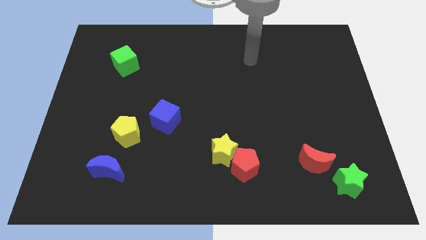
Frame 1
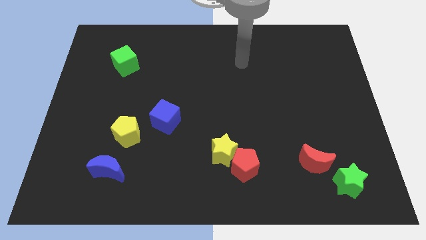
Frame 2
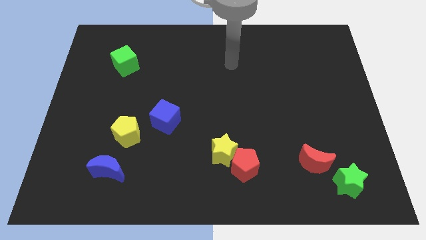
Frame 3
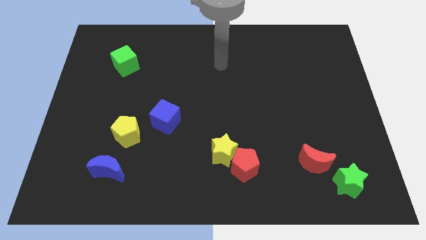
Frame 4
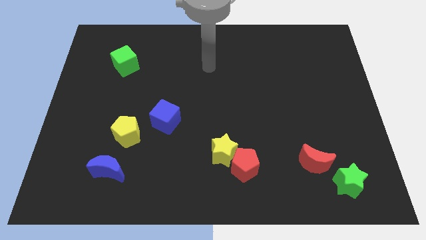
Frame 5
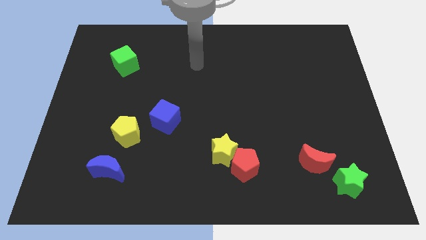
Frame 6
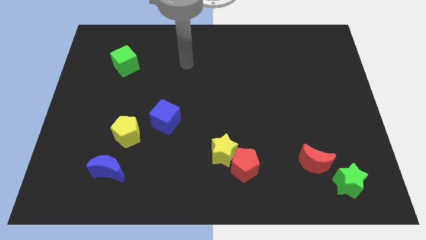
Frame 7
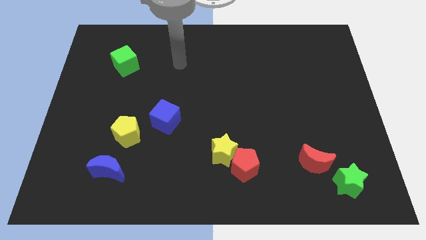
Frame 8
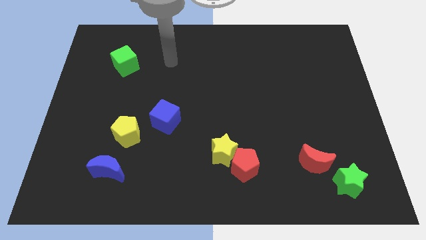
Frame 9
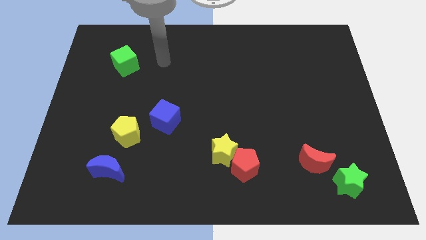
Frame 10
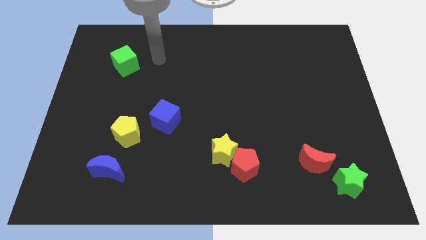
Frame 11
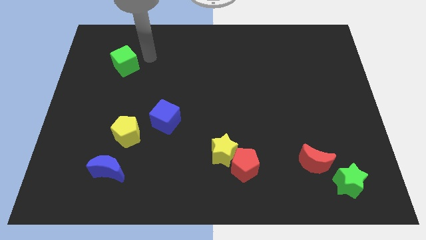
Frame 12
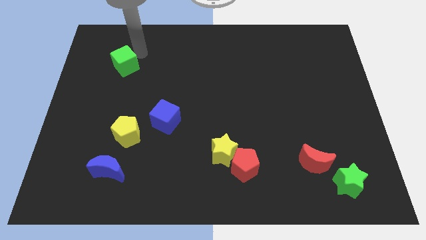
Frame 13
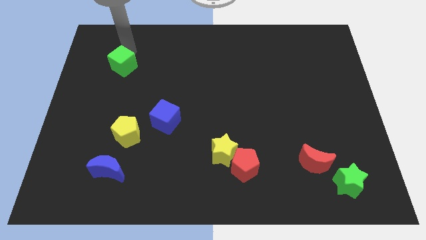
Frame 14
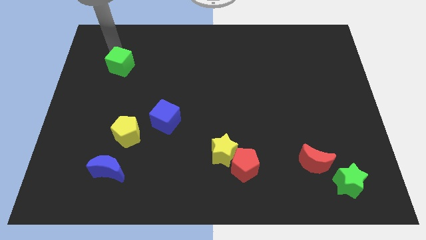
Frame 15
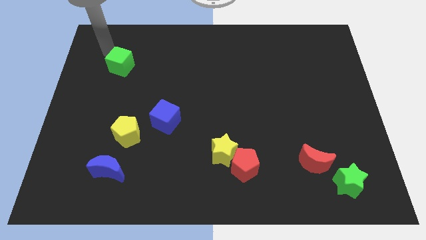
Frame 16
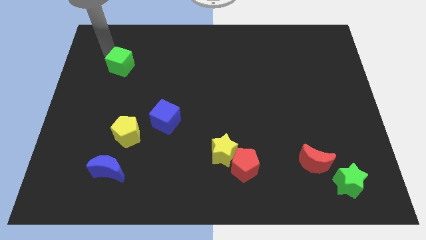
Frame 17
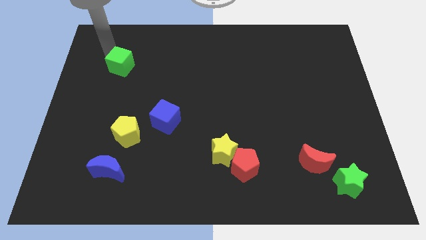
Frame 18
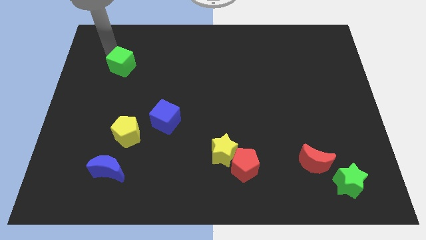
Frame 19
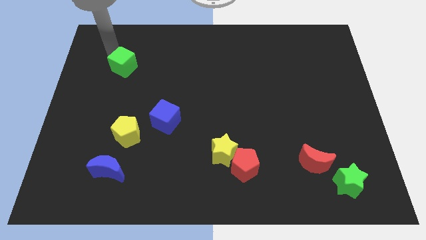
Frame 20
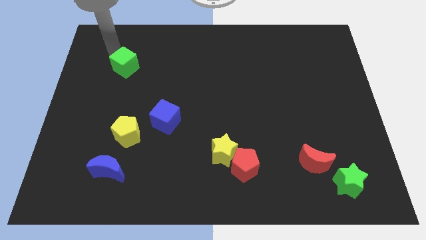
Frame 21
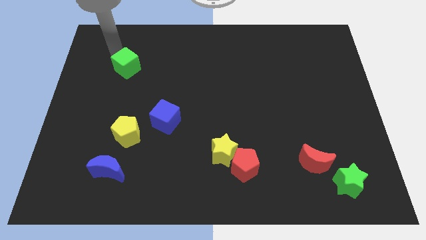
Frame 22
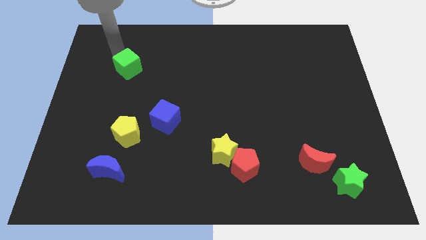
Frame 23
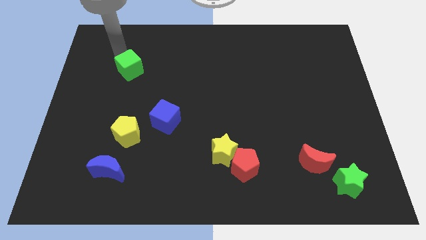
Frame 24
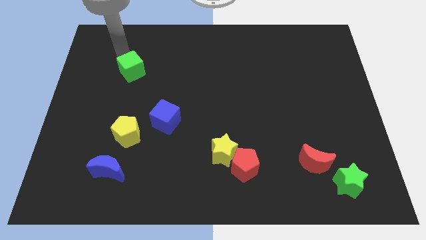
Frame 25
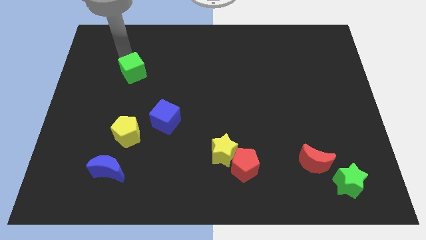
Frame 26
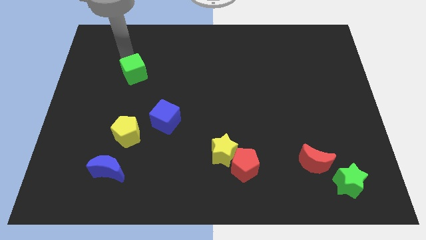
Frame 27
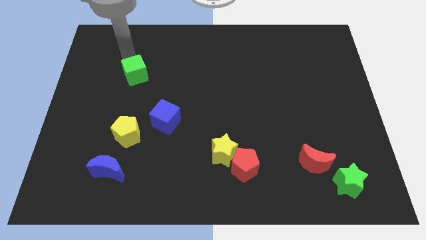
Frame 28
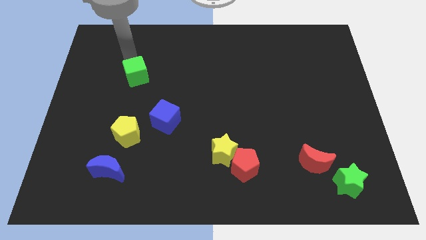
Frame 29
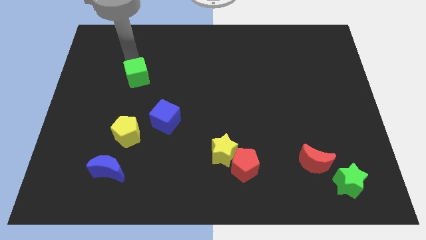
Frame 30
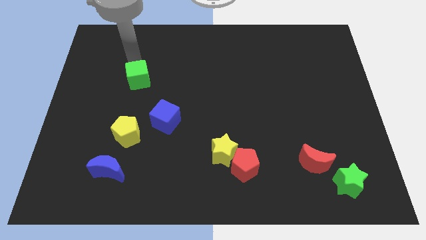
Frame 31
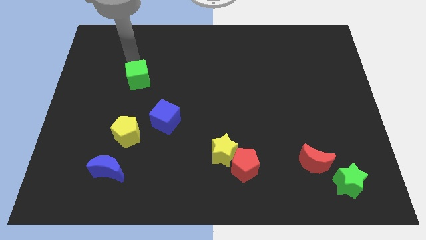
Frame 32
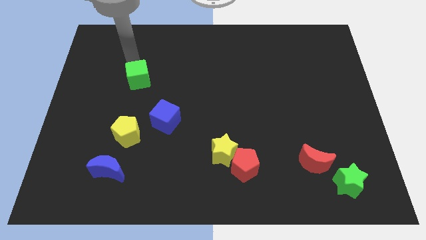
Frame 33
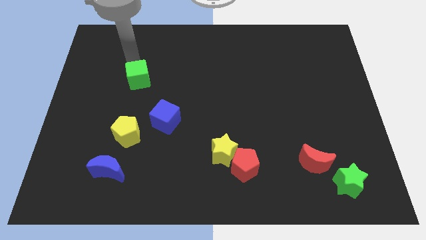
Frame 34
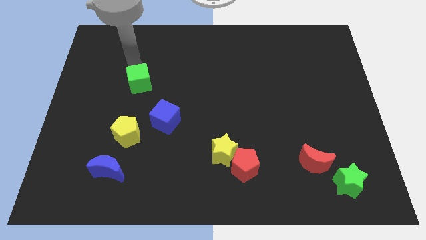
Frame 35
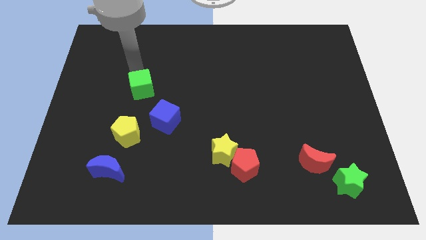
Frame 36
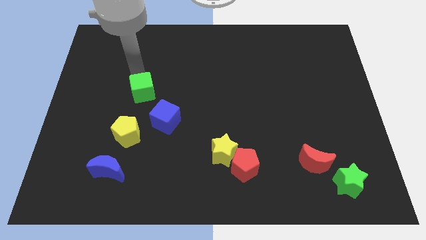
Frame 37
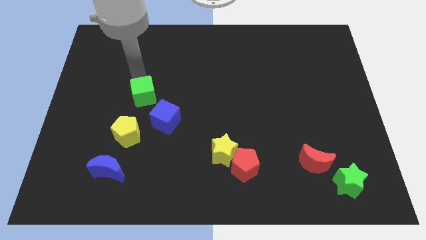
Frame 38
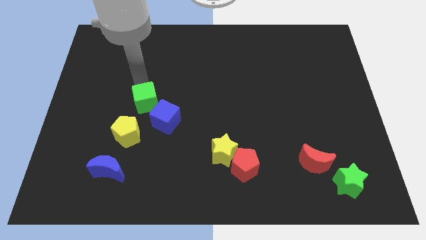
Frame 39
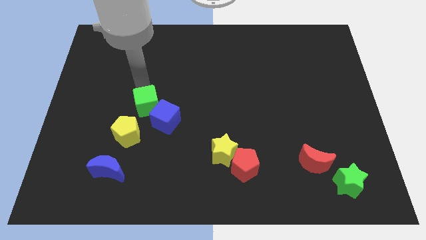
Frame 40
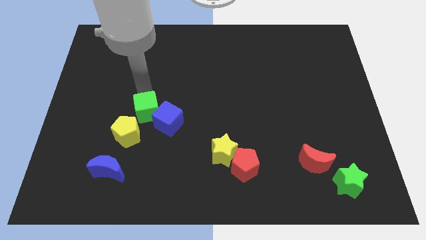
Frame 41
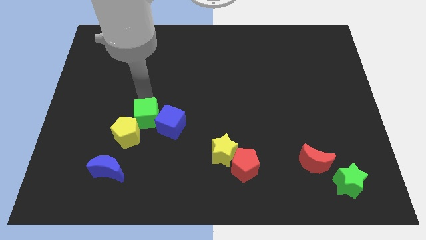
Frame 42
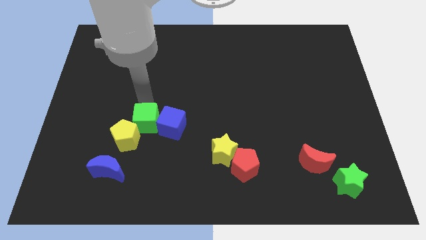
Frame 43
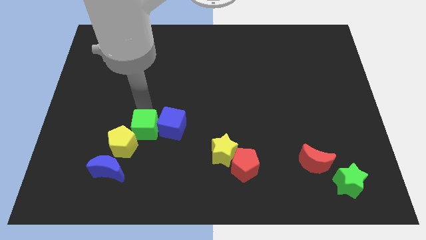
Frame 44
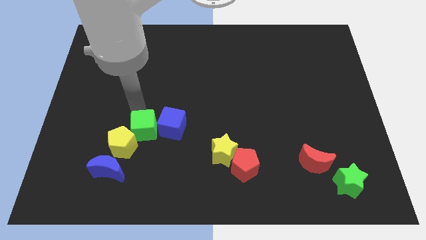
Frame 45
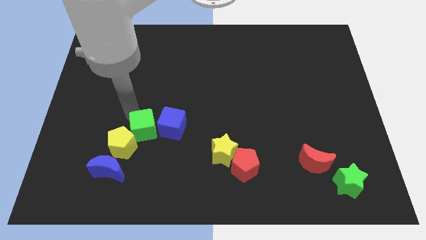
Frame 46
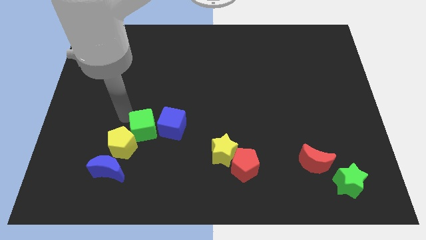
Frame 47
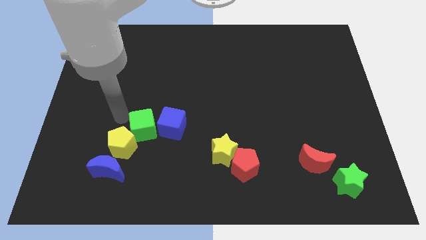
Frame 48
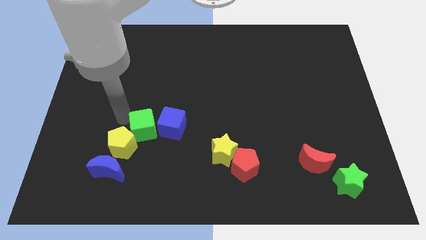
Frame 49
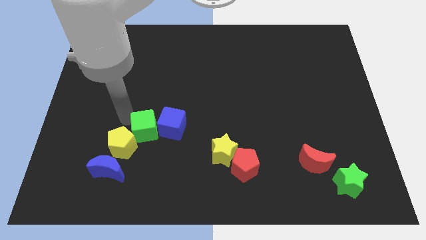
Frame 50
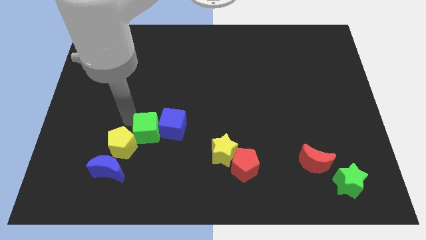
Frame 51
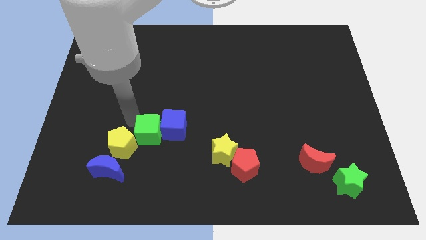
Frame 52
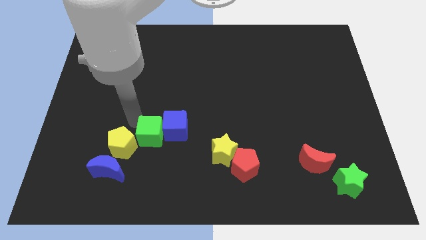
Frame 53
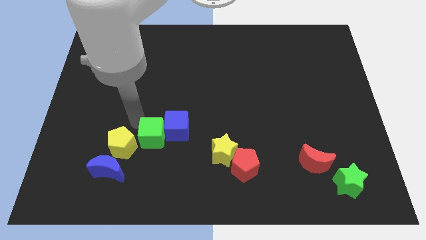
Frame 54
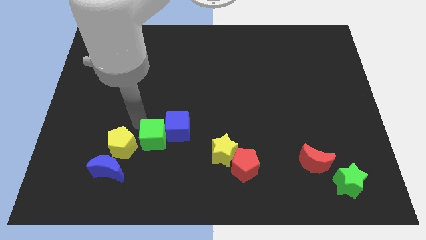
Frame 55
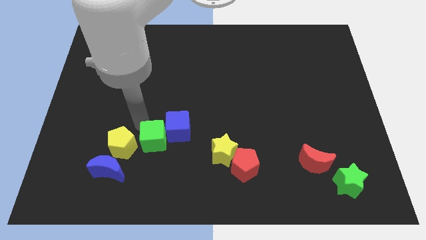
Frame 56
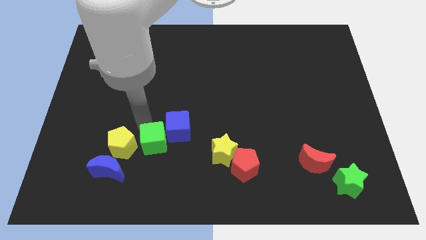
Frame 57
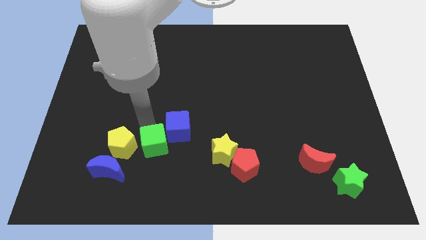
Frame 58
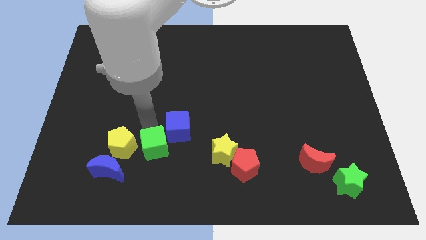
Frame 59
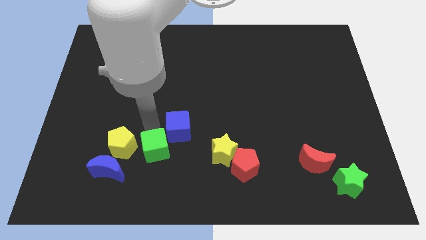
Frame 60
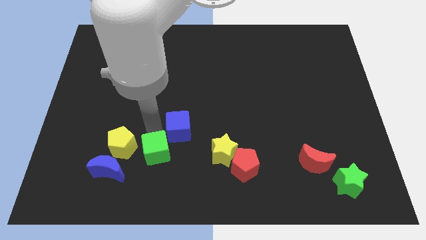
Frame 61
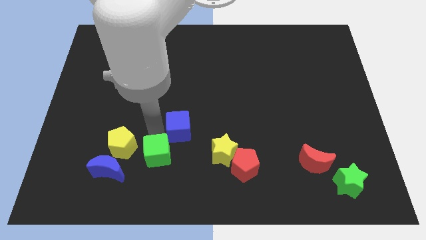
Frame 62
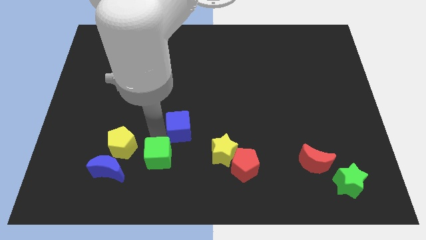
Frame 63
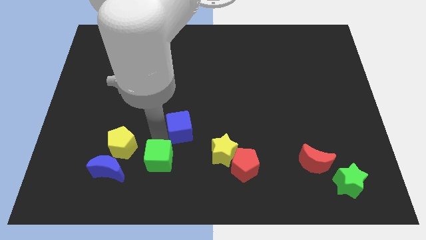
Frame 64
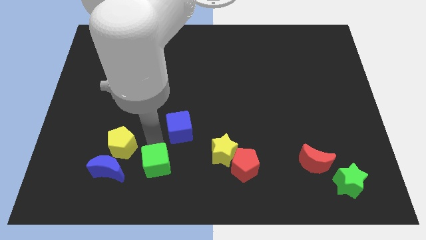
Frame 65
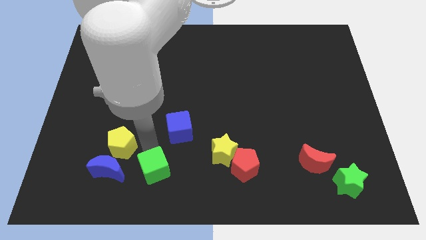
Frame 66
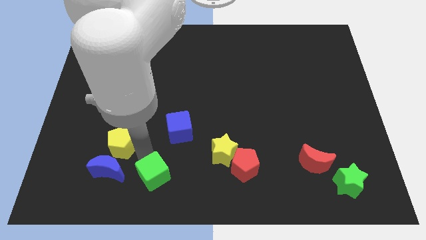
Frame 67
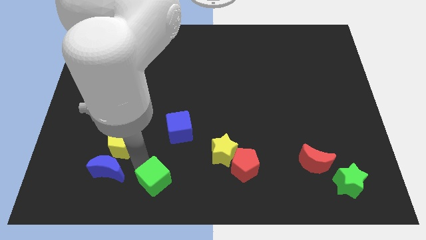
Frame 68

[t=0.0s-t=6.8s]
move the green cube to the bottom side

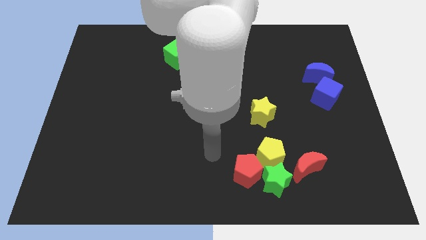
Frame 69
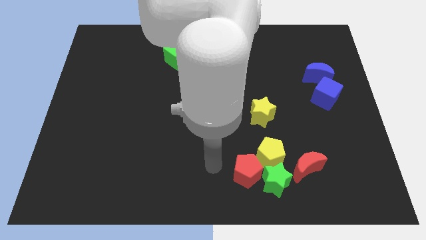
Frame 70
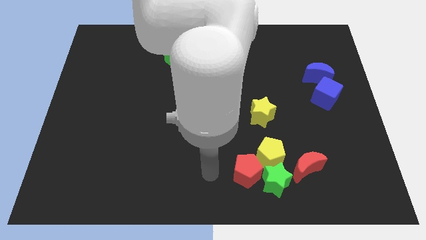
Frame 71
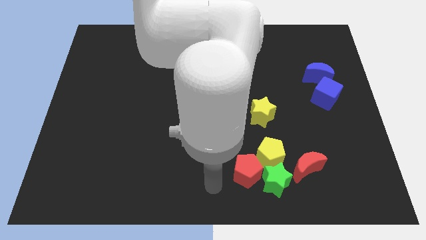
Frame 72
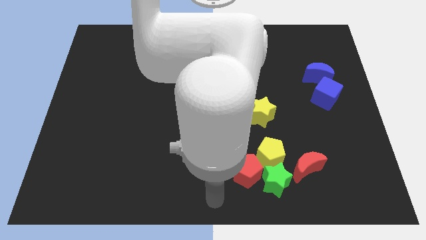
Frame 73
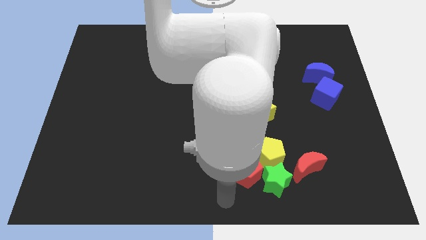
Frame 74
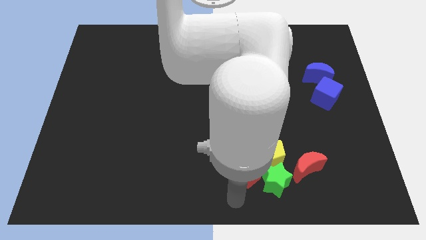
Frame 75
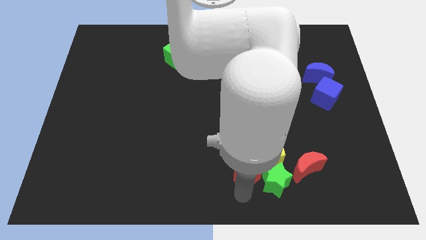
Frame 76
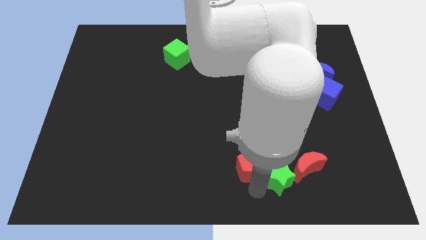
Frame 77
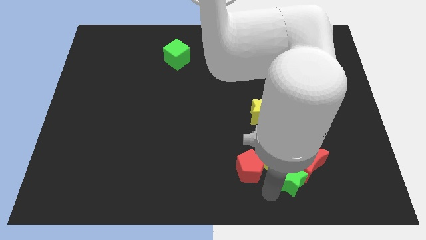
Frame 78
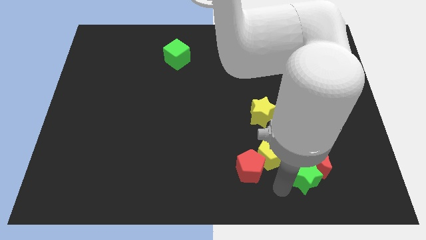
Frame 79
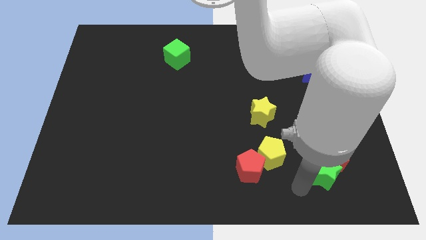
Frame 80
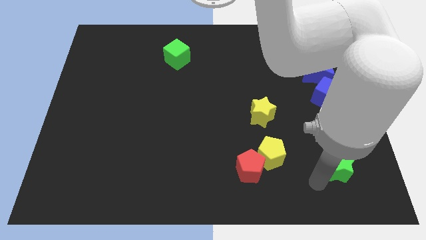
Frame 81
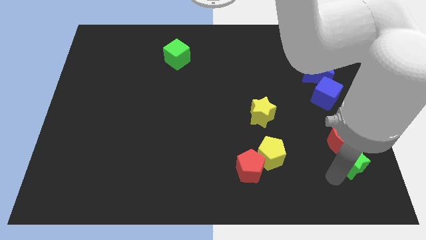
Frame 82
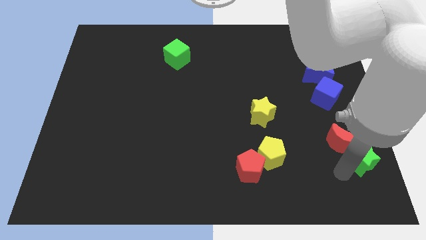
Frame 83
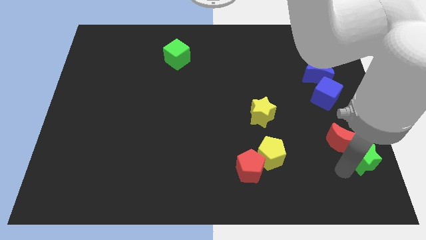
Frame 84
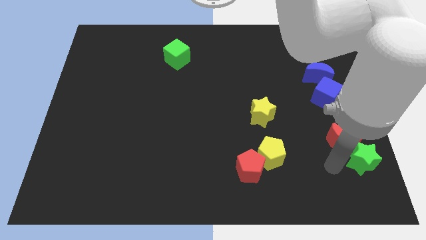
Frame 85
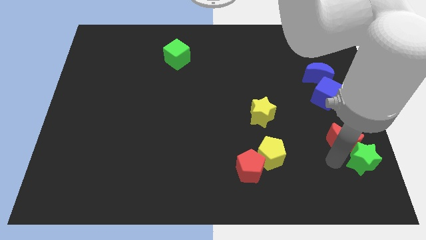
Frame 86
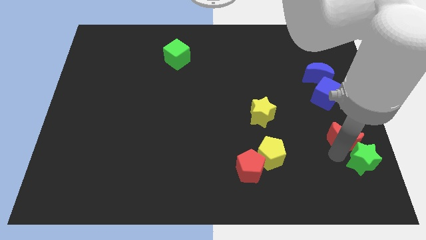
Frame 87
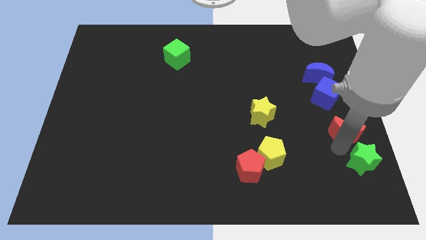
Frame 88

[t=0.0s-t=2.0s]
put the red moon to the center right
